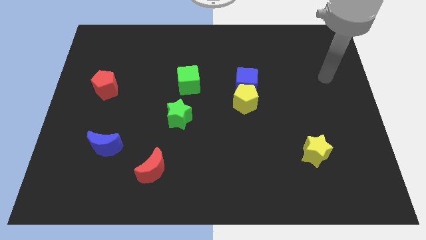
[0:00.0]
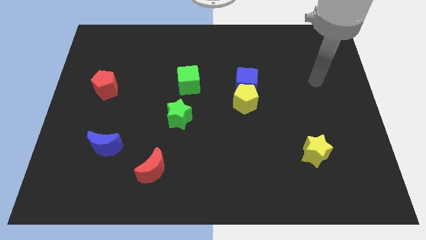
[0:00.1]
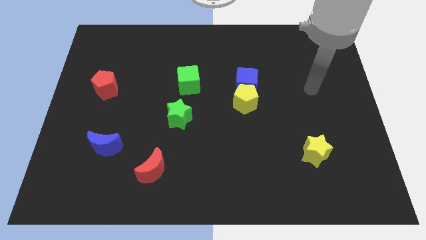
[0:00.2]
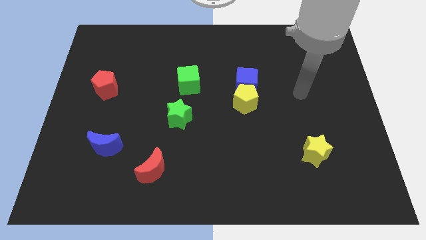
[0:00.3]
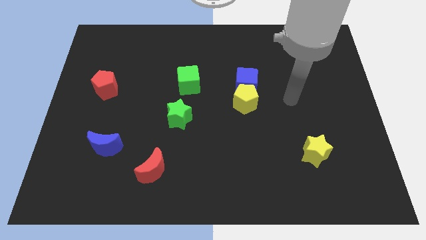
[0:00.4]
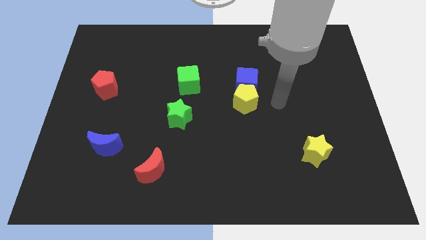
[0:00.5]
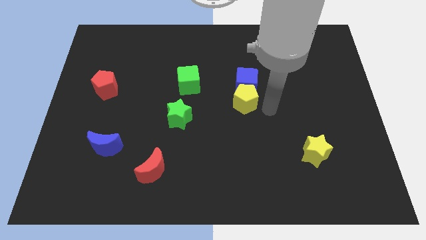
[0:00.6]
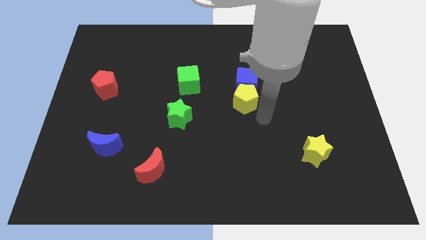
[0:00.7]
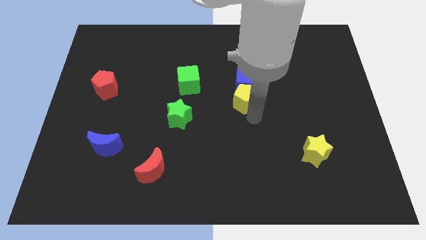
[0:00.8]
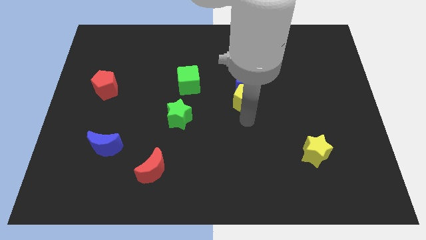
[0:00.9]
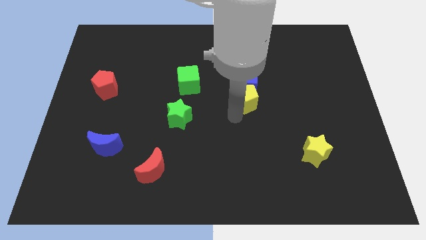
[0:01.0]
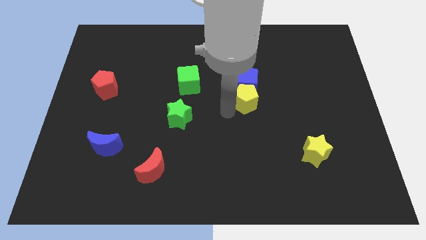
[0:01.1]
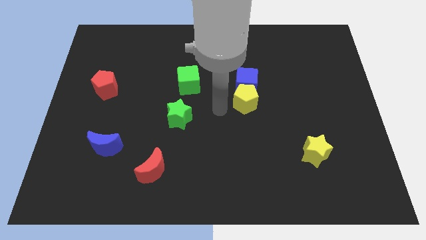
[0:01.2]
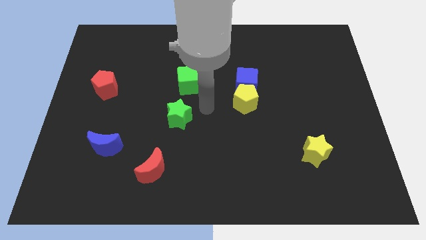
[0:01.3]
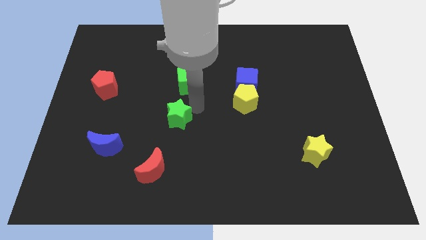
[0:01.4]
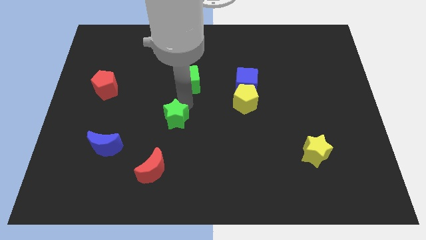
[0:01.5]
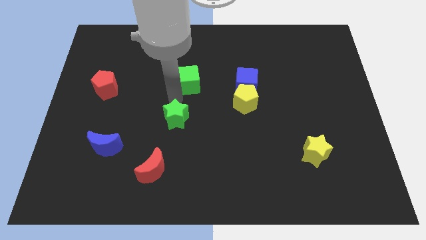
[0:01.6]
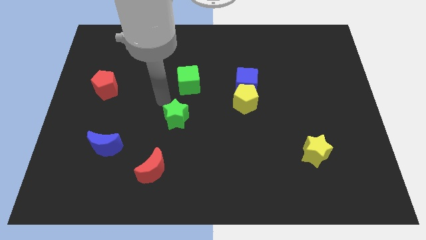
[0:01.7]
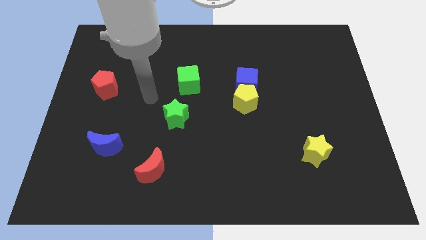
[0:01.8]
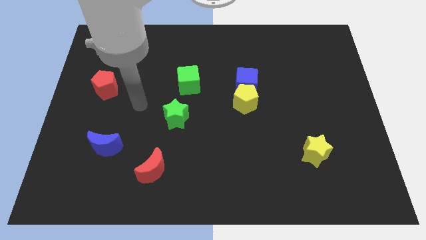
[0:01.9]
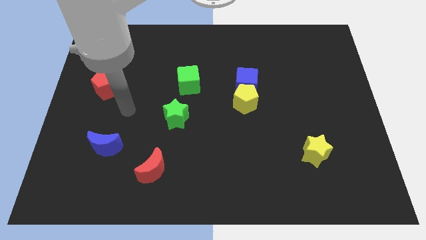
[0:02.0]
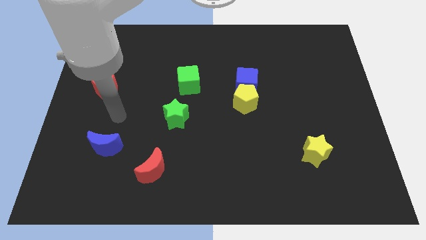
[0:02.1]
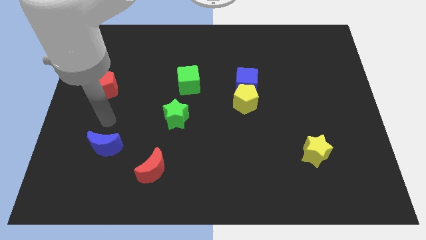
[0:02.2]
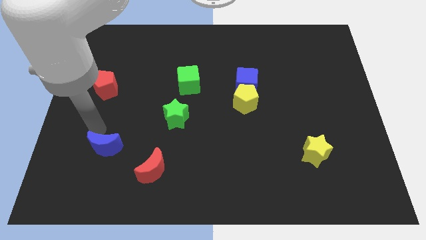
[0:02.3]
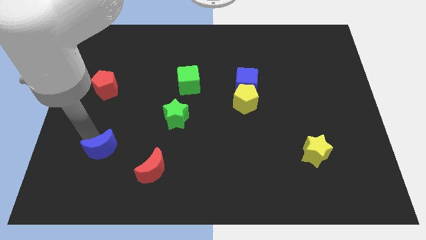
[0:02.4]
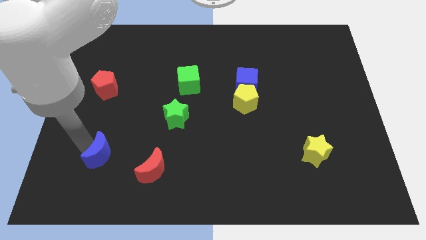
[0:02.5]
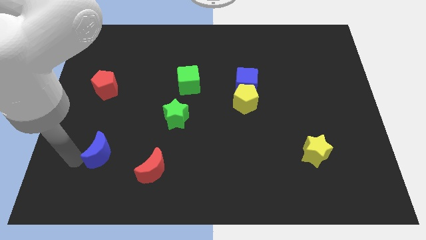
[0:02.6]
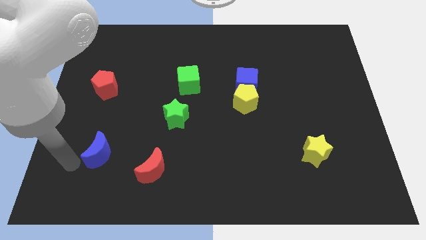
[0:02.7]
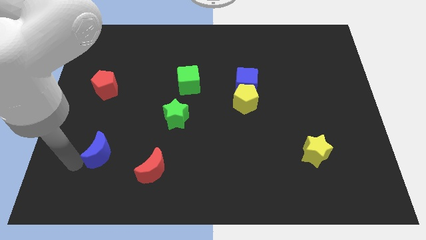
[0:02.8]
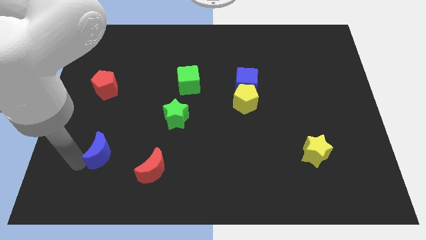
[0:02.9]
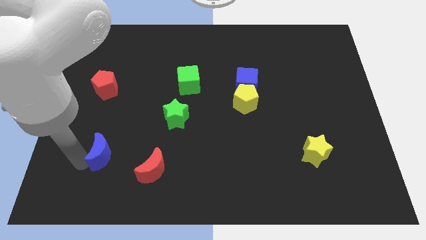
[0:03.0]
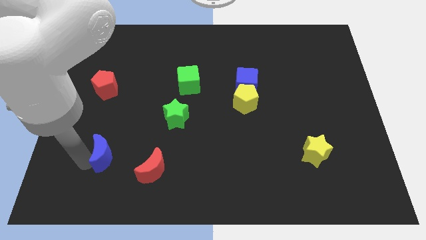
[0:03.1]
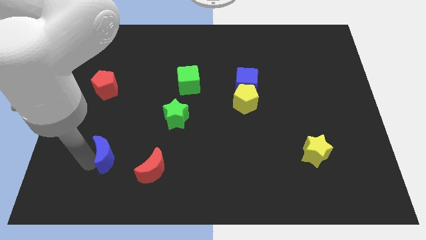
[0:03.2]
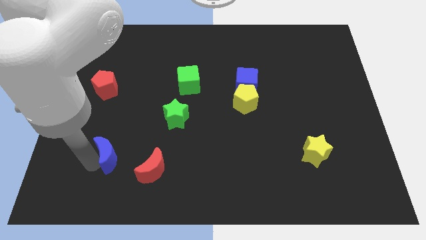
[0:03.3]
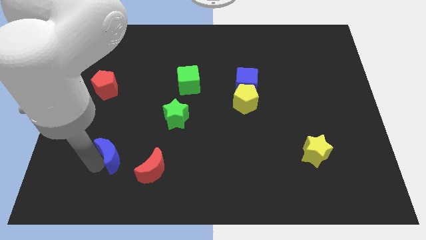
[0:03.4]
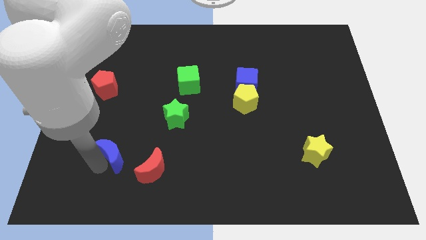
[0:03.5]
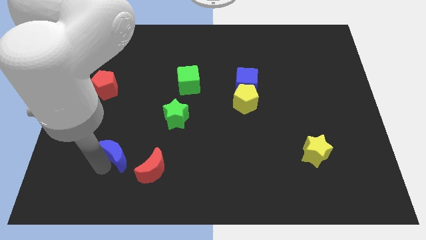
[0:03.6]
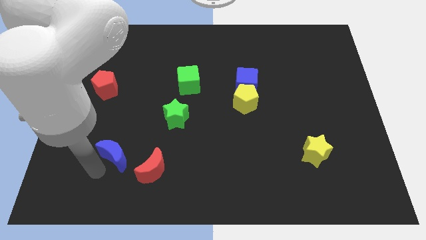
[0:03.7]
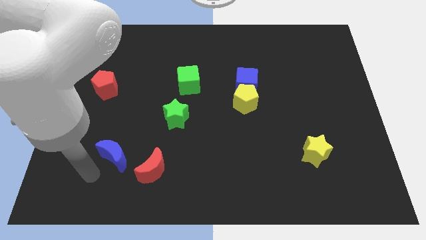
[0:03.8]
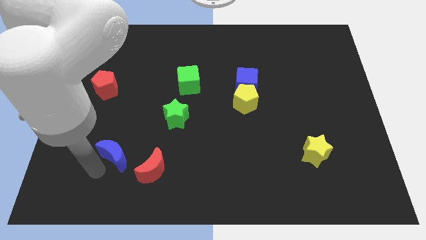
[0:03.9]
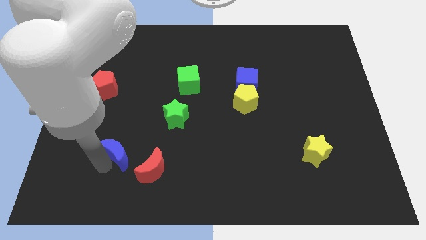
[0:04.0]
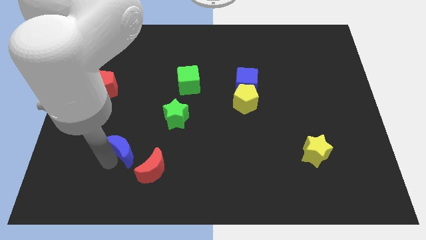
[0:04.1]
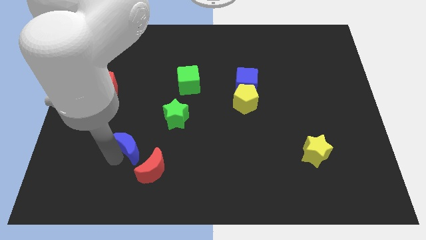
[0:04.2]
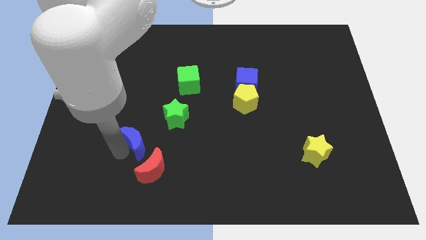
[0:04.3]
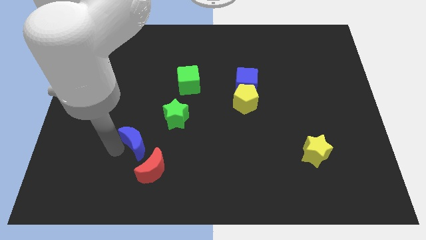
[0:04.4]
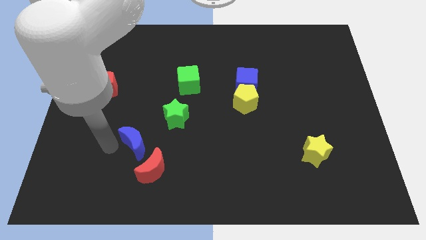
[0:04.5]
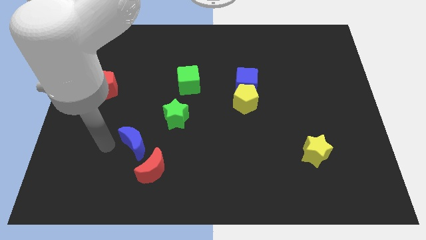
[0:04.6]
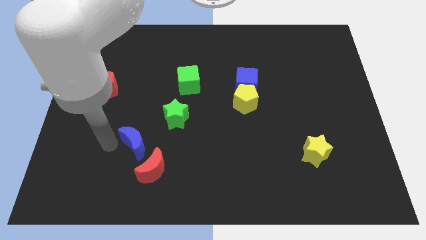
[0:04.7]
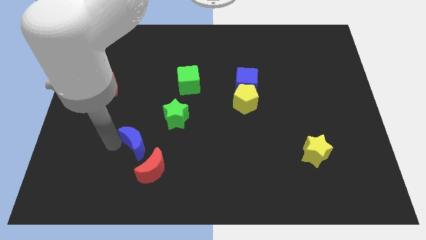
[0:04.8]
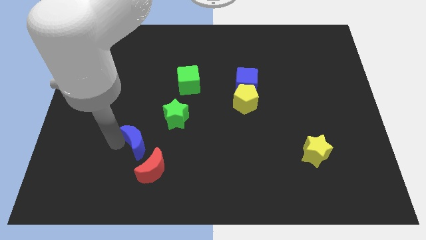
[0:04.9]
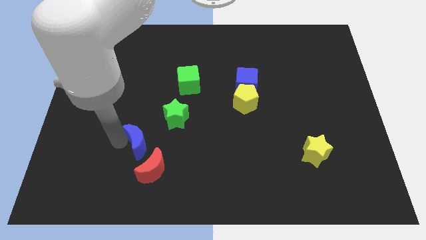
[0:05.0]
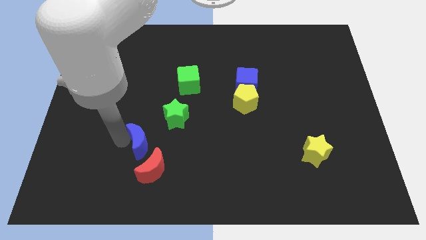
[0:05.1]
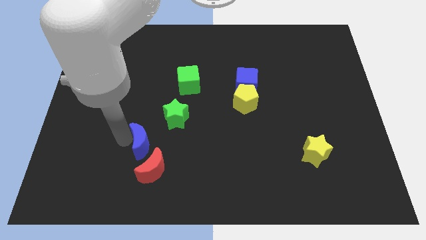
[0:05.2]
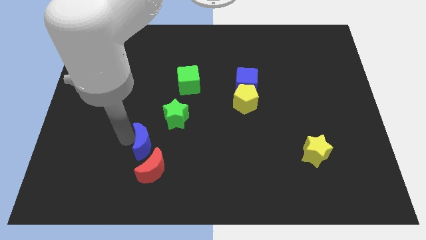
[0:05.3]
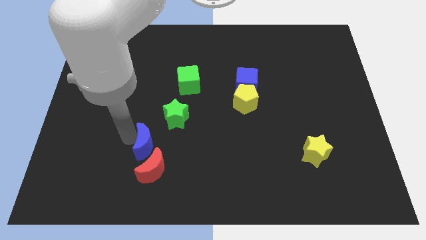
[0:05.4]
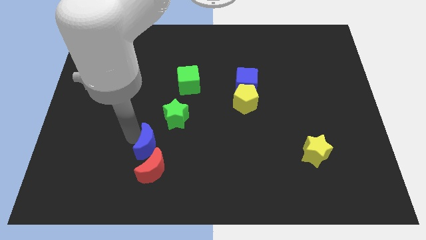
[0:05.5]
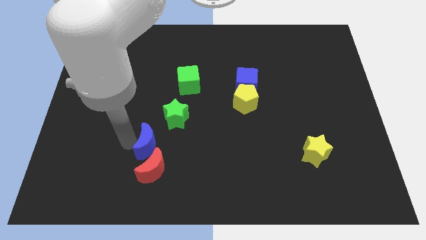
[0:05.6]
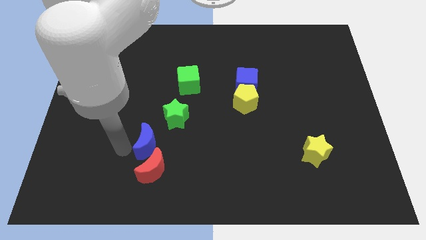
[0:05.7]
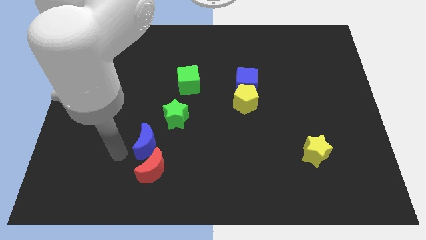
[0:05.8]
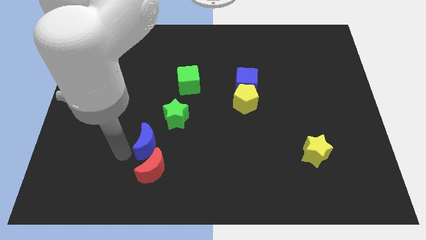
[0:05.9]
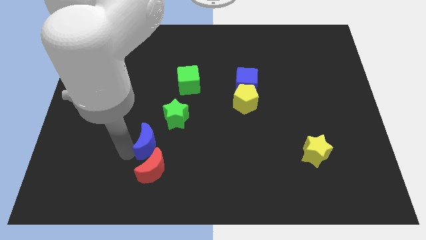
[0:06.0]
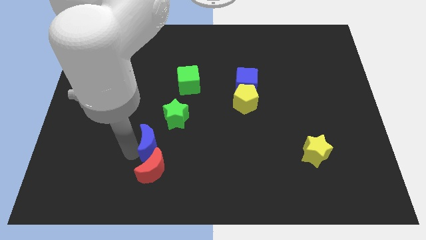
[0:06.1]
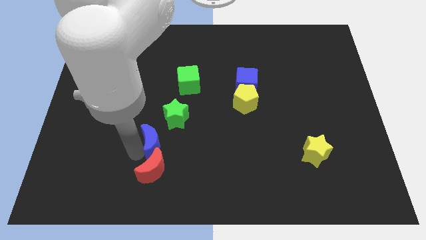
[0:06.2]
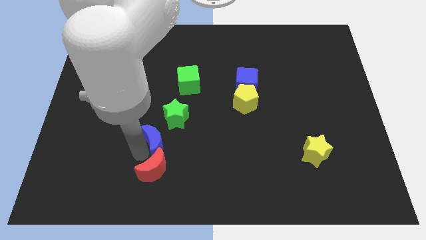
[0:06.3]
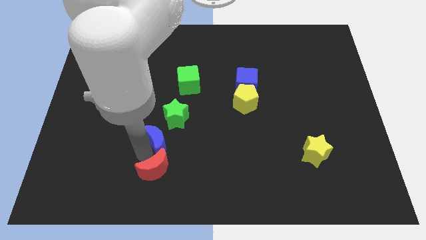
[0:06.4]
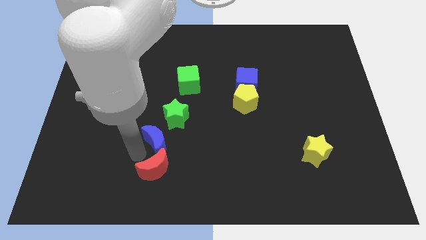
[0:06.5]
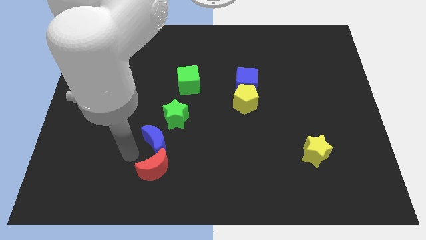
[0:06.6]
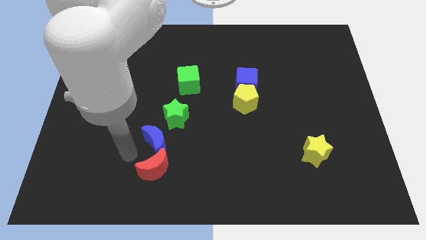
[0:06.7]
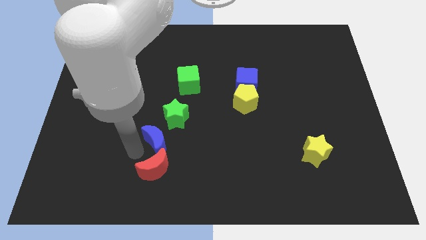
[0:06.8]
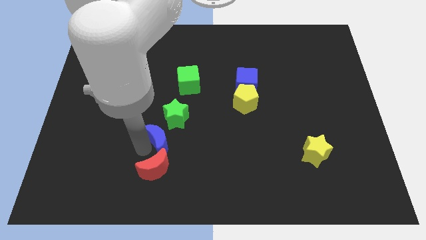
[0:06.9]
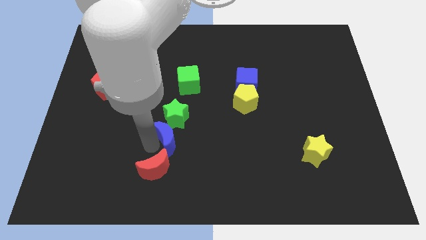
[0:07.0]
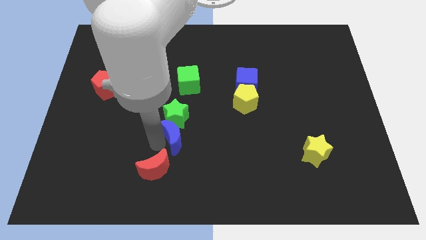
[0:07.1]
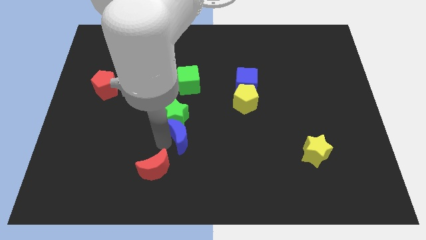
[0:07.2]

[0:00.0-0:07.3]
slide the blue moon below the green cube
